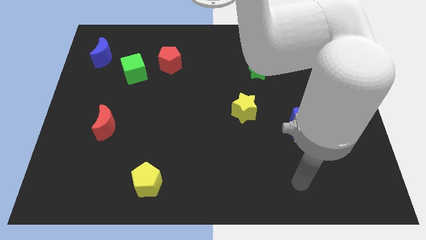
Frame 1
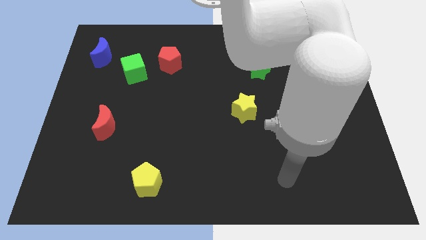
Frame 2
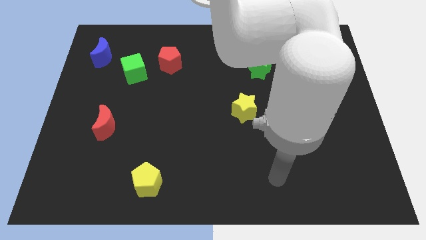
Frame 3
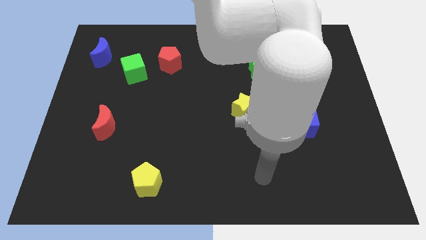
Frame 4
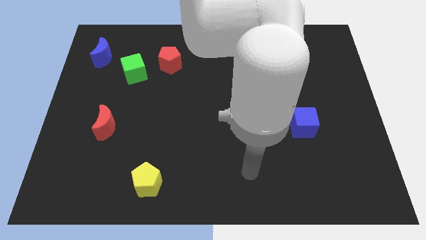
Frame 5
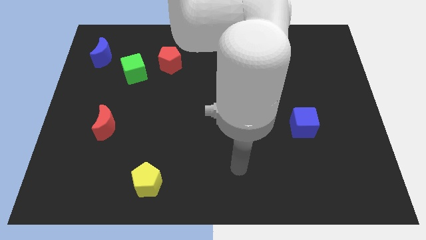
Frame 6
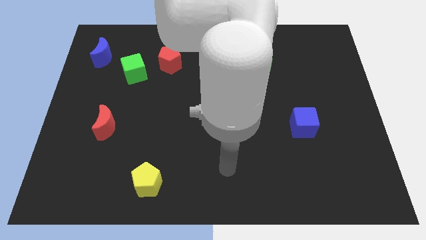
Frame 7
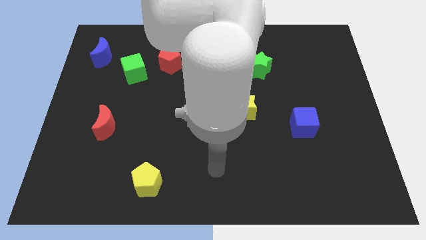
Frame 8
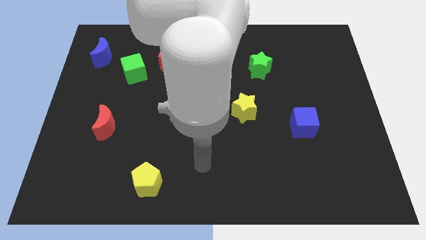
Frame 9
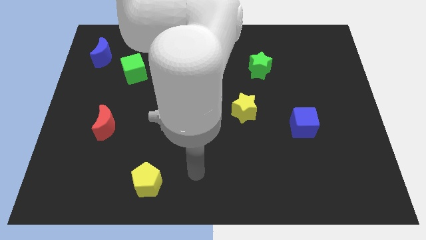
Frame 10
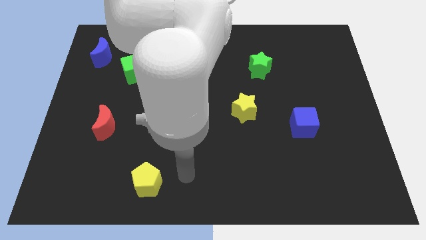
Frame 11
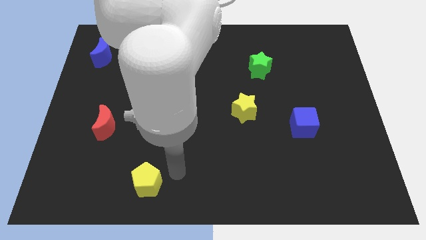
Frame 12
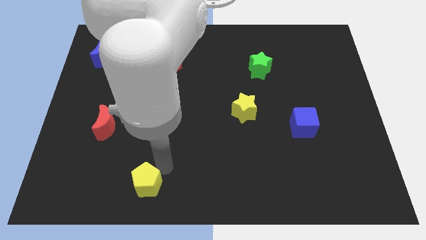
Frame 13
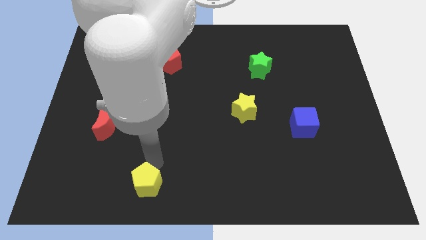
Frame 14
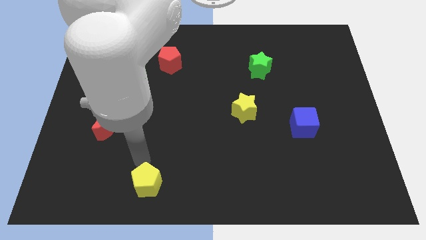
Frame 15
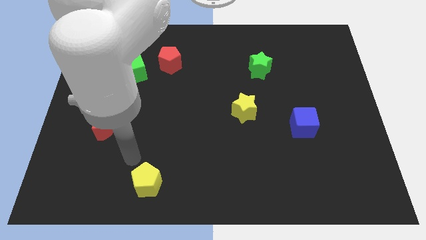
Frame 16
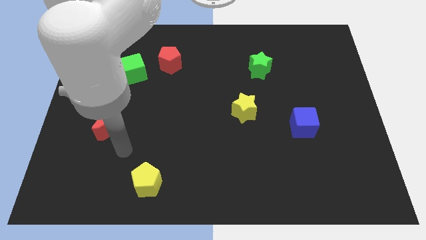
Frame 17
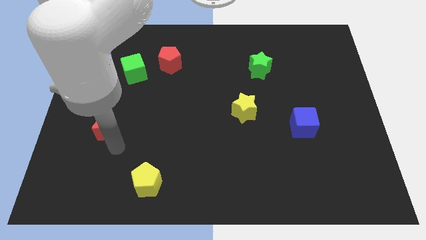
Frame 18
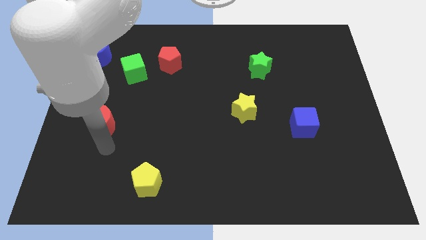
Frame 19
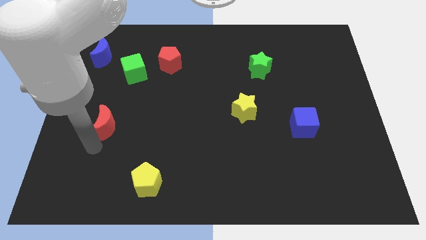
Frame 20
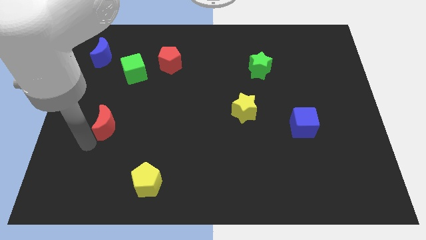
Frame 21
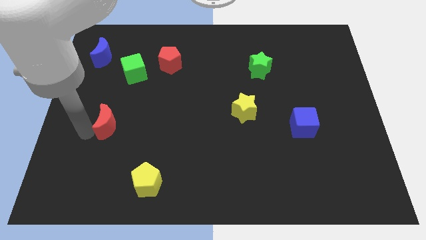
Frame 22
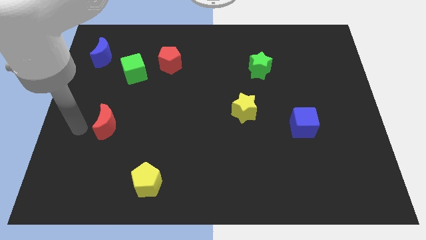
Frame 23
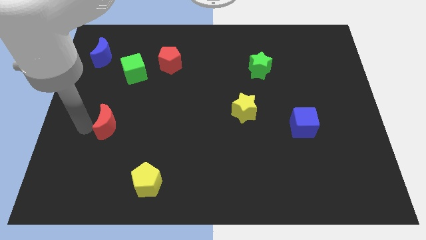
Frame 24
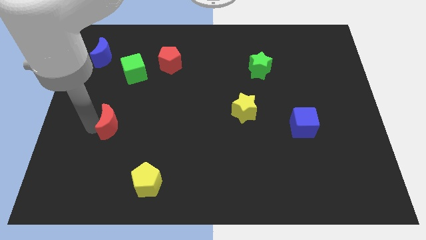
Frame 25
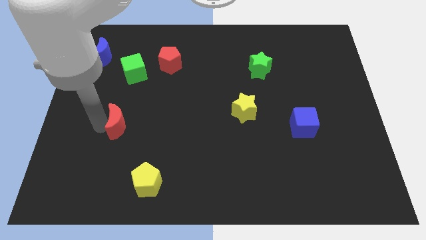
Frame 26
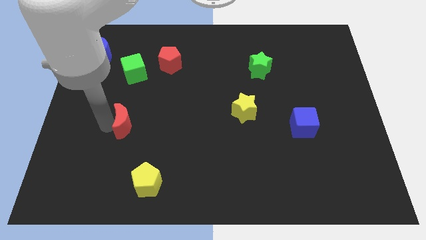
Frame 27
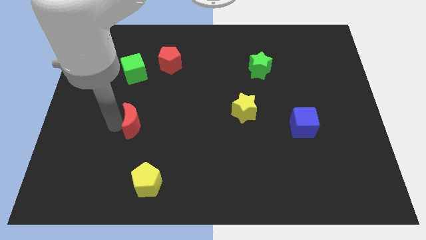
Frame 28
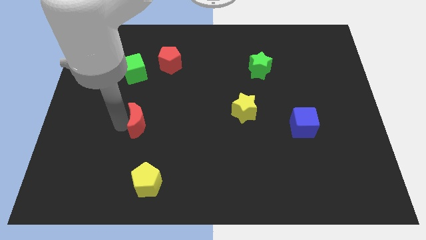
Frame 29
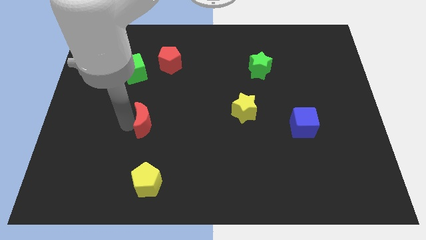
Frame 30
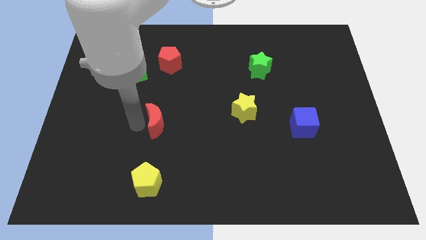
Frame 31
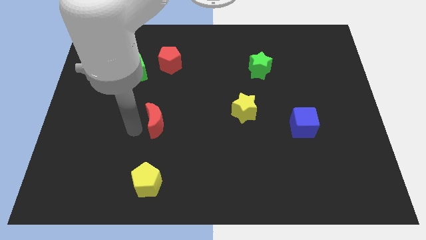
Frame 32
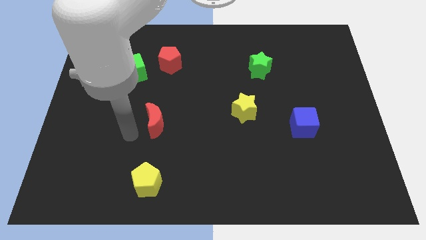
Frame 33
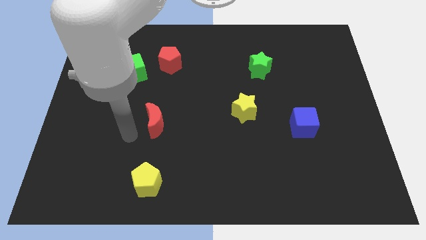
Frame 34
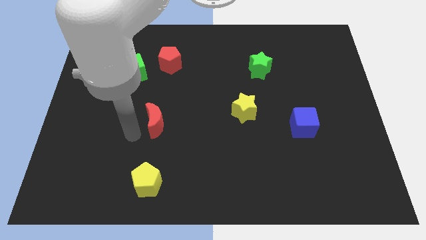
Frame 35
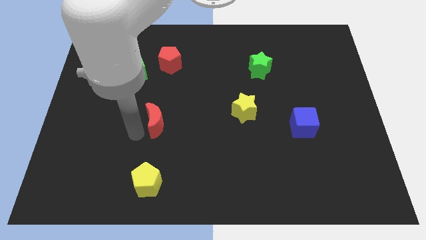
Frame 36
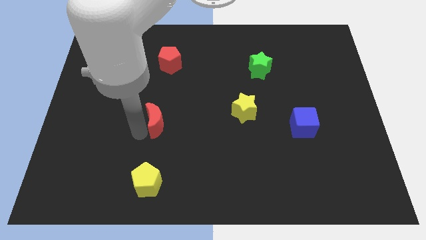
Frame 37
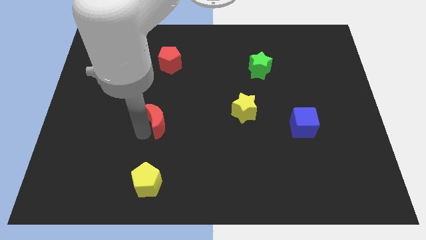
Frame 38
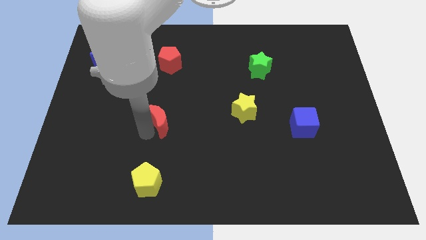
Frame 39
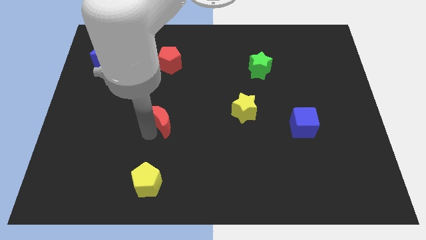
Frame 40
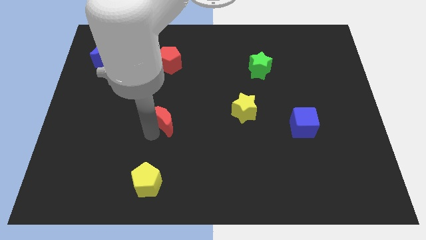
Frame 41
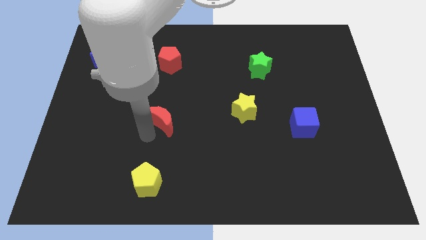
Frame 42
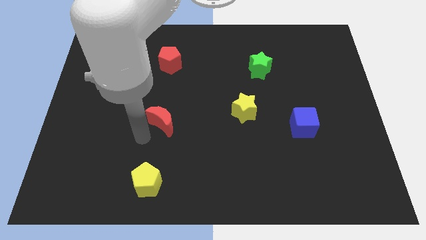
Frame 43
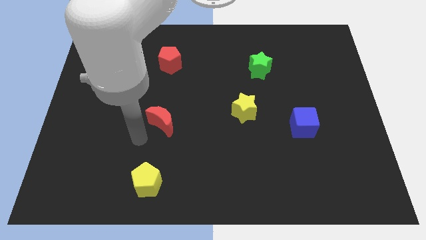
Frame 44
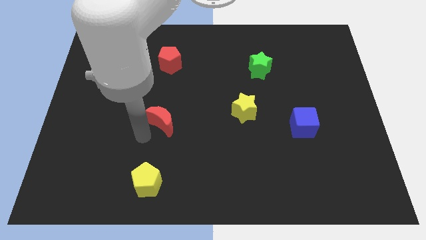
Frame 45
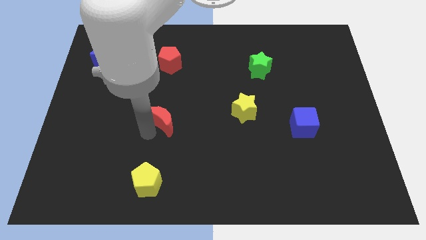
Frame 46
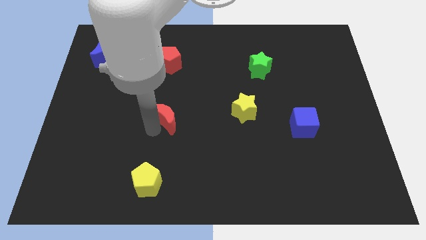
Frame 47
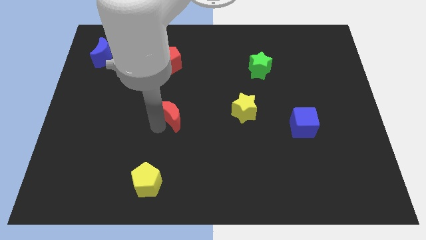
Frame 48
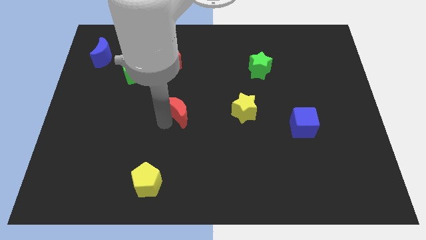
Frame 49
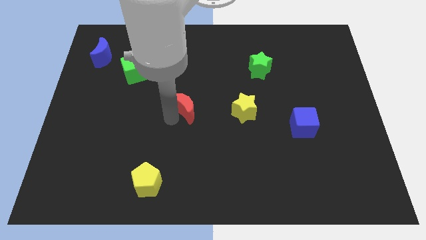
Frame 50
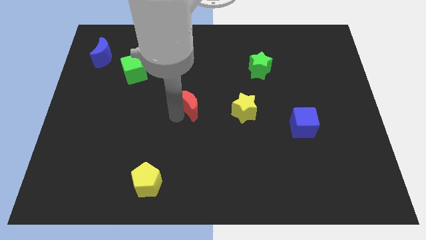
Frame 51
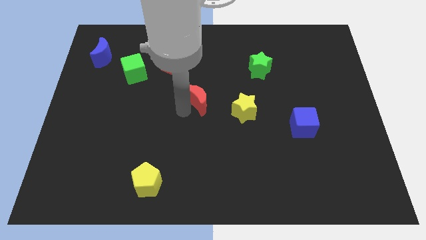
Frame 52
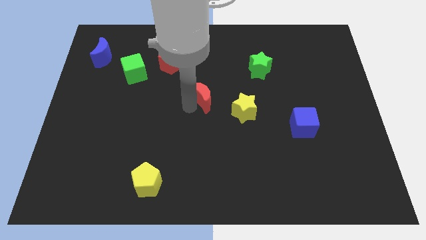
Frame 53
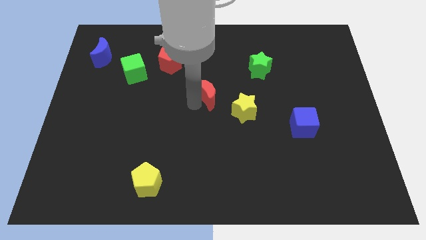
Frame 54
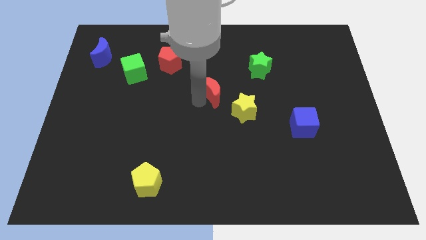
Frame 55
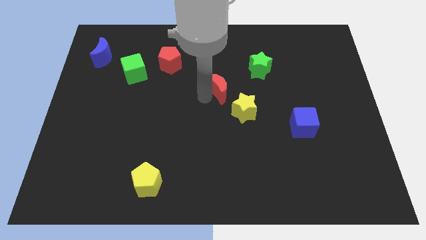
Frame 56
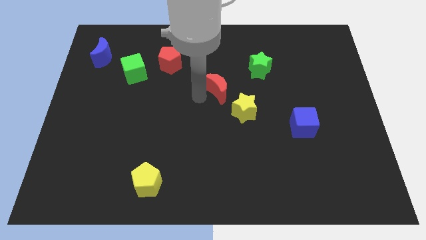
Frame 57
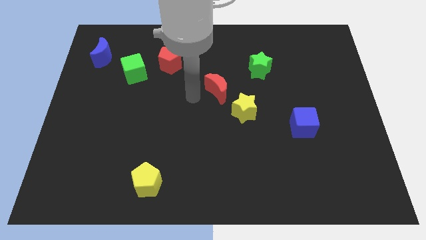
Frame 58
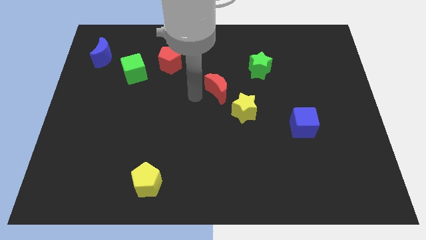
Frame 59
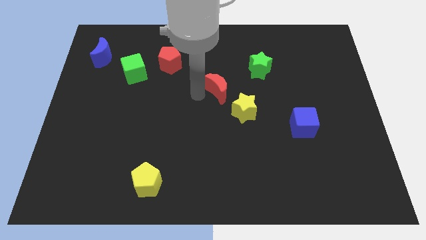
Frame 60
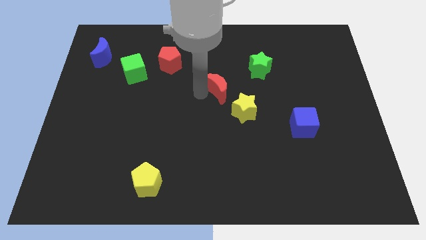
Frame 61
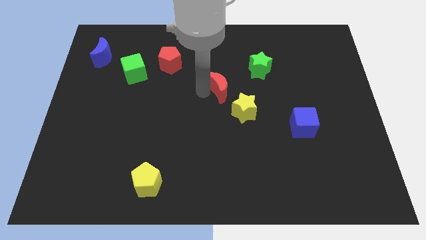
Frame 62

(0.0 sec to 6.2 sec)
push the red moon diagonally down and to the left of the green star

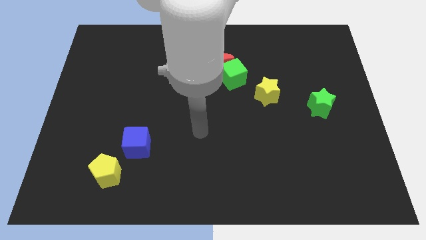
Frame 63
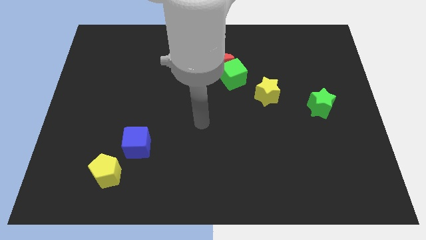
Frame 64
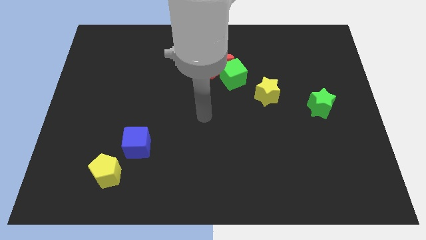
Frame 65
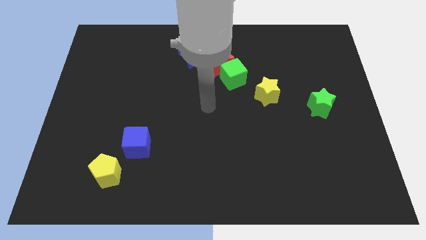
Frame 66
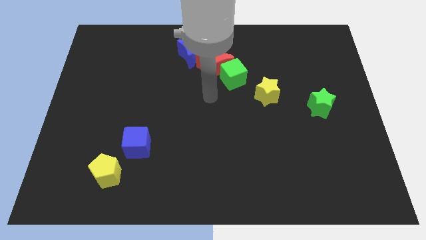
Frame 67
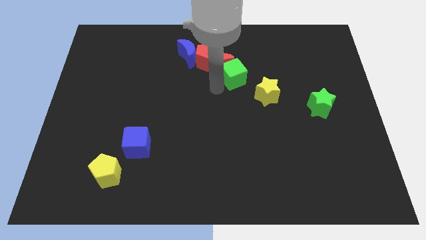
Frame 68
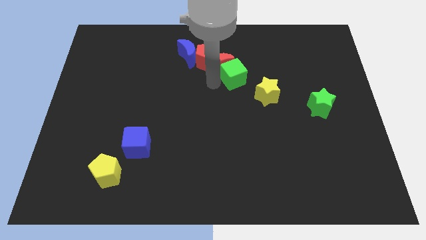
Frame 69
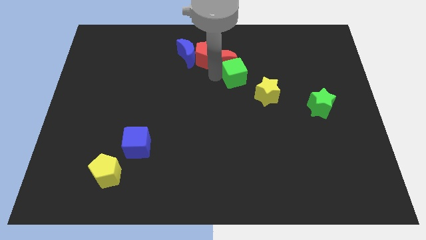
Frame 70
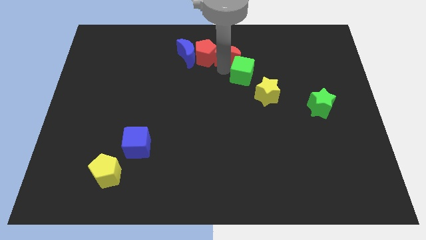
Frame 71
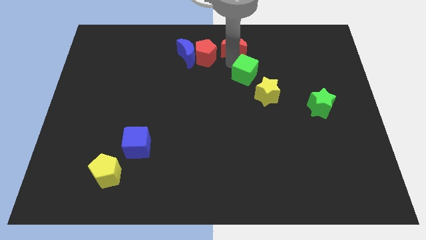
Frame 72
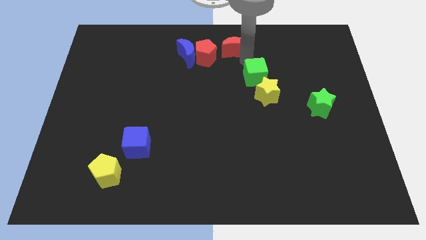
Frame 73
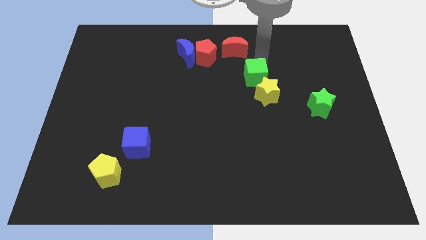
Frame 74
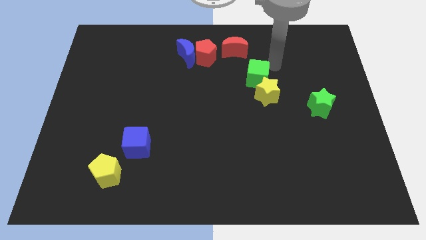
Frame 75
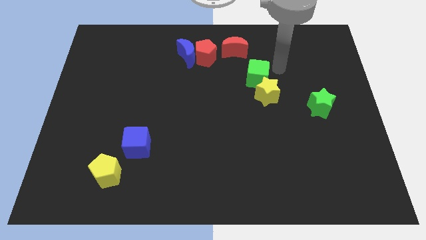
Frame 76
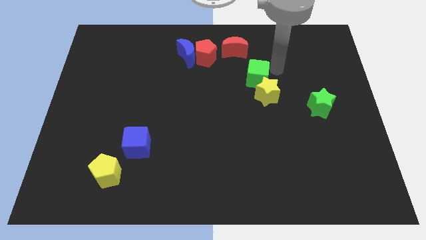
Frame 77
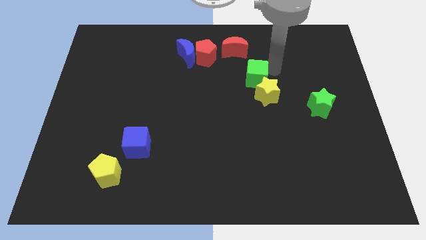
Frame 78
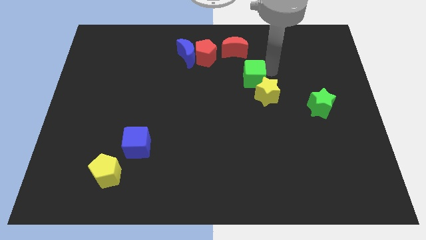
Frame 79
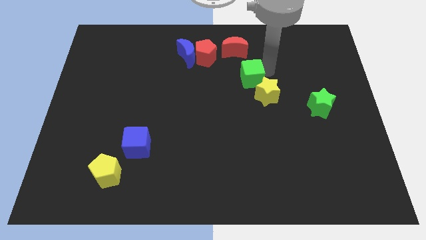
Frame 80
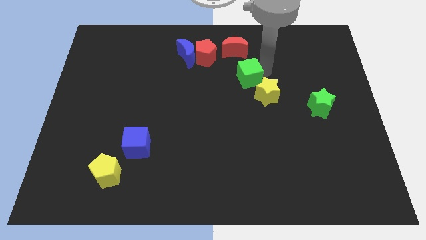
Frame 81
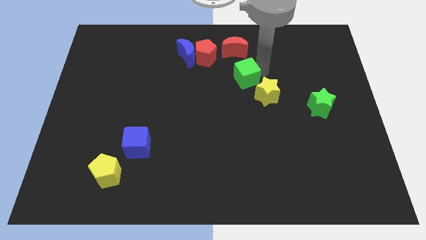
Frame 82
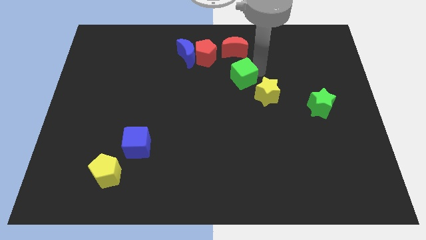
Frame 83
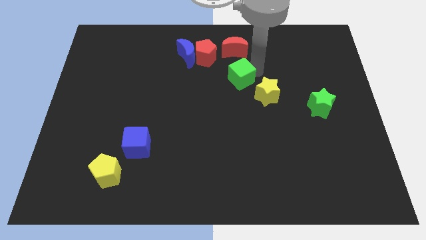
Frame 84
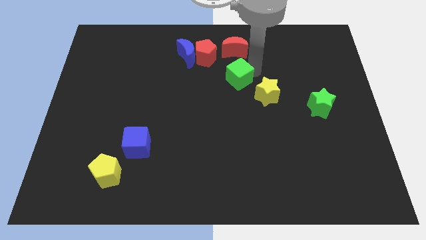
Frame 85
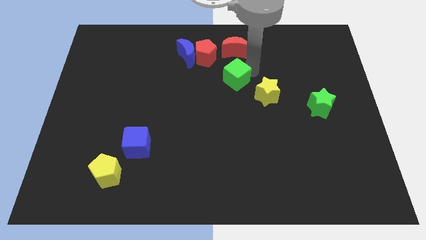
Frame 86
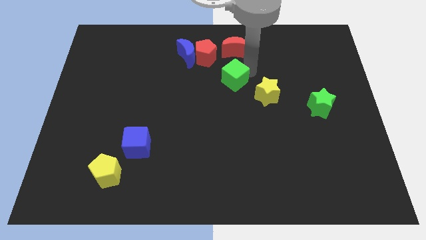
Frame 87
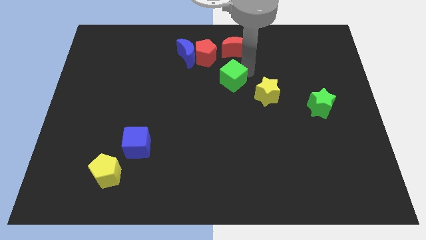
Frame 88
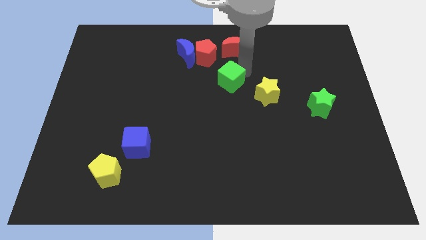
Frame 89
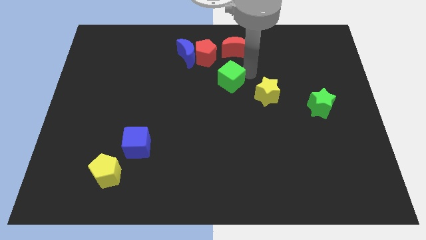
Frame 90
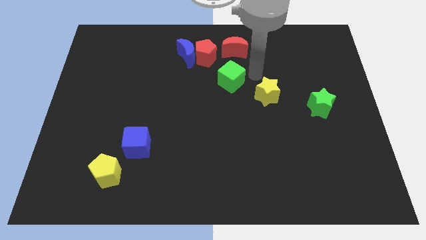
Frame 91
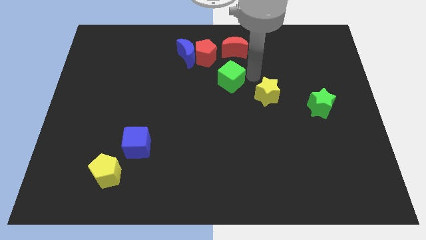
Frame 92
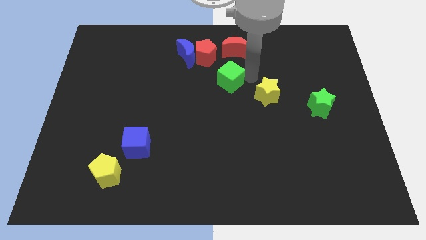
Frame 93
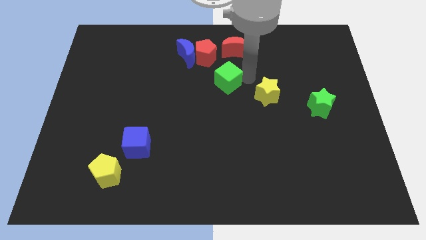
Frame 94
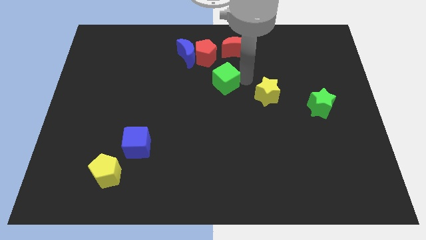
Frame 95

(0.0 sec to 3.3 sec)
push the green cube to the bottom side of the red pentagon
